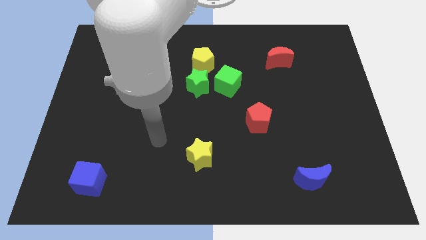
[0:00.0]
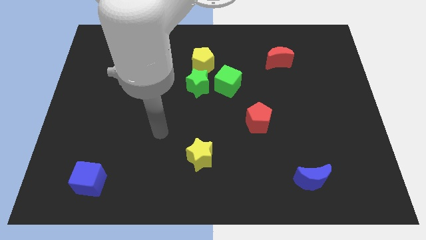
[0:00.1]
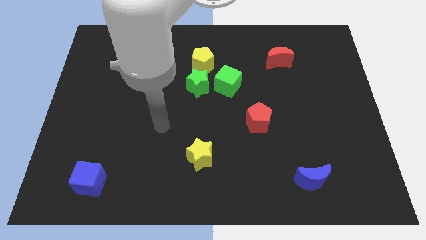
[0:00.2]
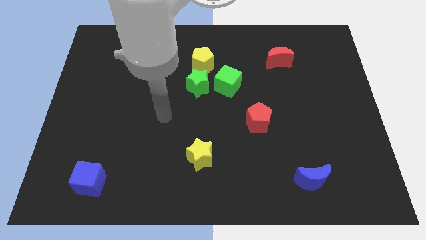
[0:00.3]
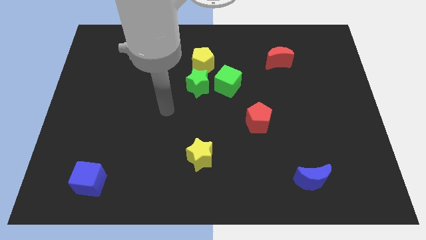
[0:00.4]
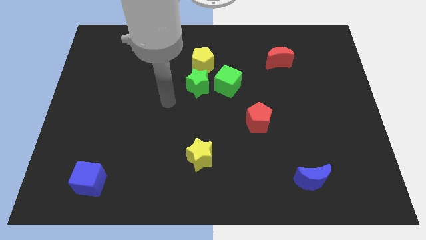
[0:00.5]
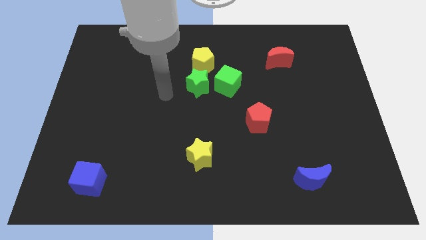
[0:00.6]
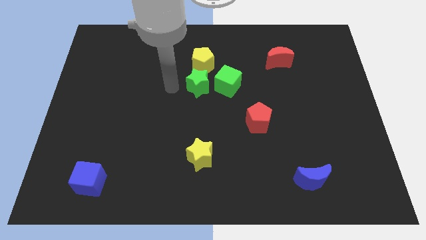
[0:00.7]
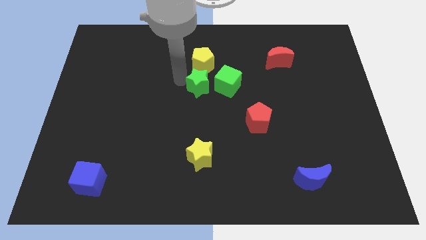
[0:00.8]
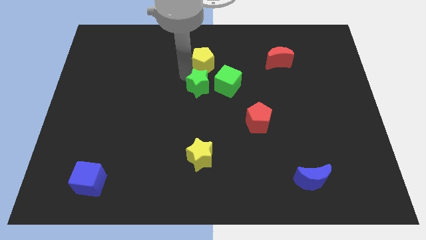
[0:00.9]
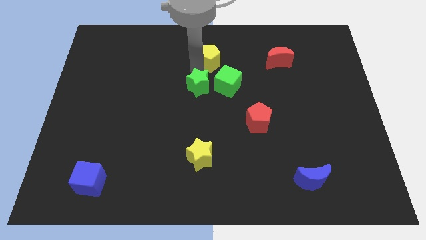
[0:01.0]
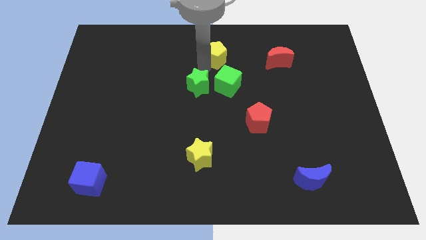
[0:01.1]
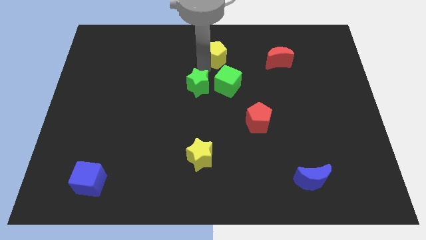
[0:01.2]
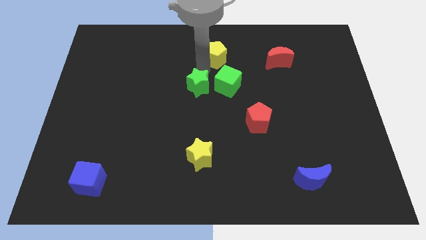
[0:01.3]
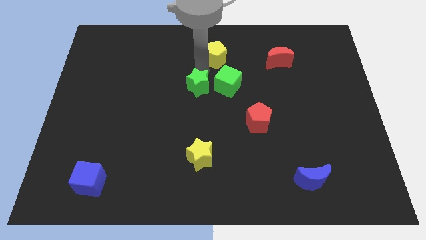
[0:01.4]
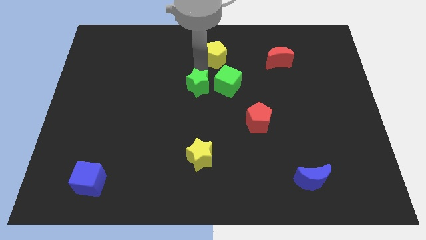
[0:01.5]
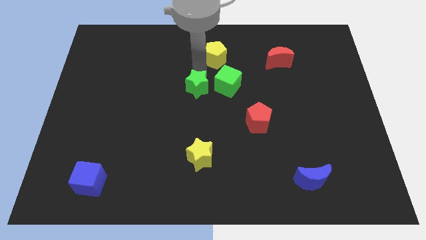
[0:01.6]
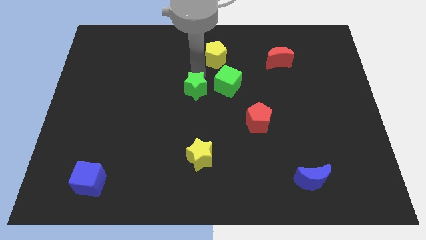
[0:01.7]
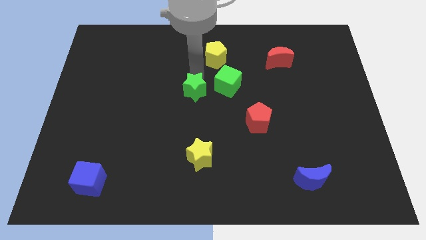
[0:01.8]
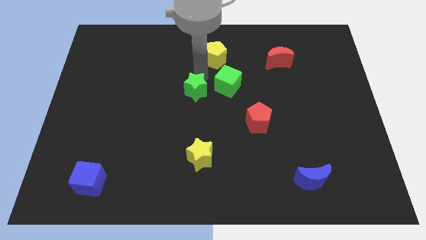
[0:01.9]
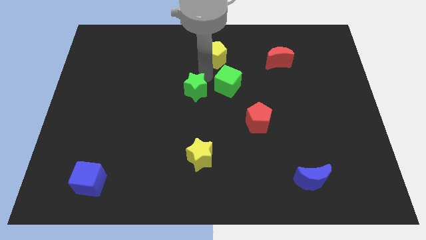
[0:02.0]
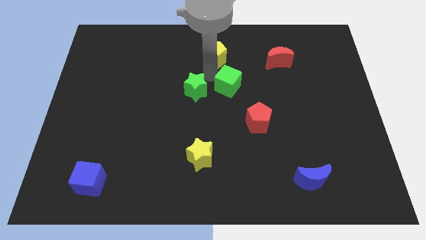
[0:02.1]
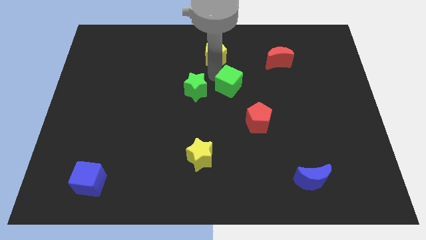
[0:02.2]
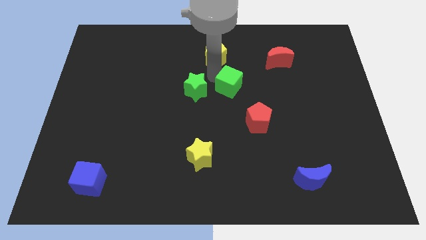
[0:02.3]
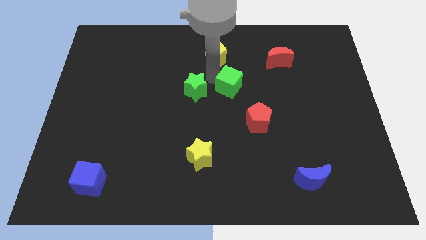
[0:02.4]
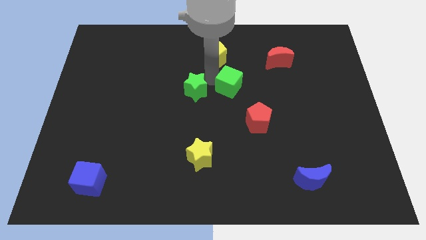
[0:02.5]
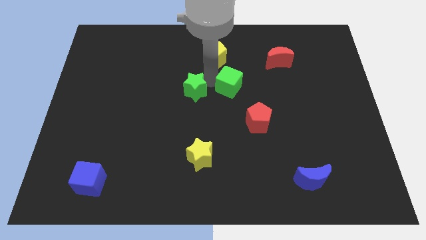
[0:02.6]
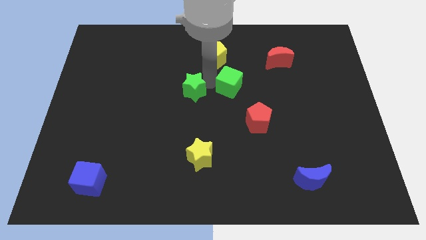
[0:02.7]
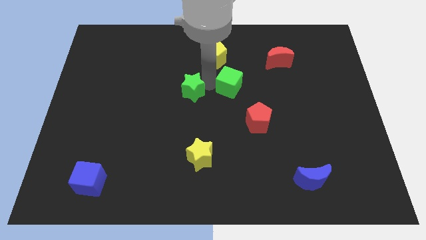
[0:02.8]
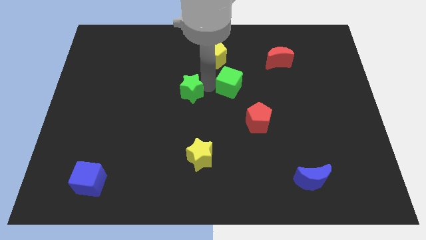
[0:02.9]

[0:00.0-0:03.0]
move the green star away from the green cube and yellow pentagon

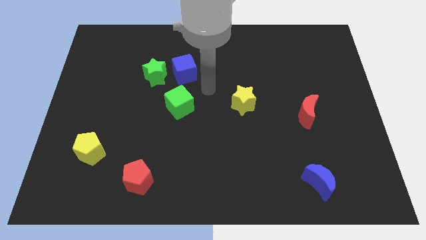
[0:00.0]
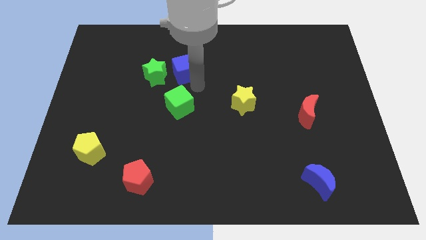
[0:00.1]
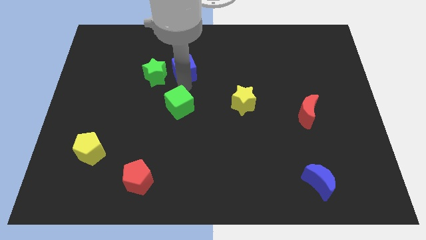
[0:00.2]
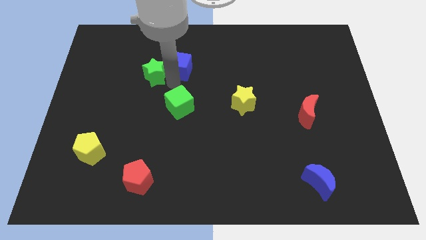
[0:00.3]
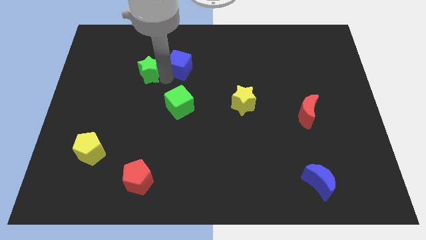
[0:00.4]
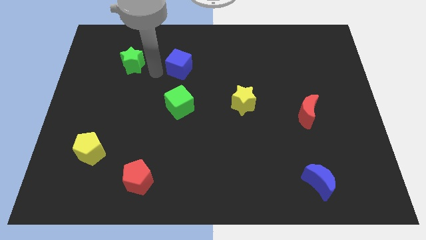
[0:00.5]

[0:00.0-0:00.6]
separate the blue cube from the green star

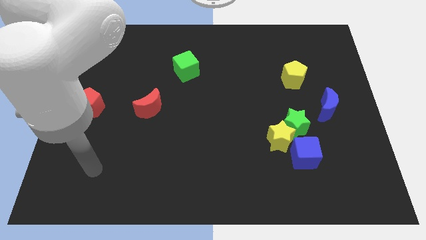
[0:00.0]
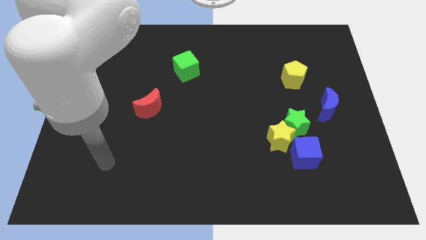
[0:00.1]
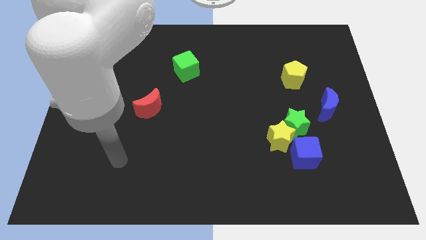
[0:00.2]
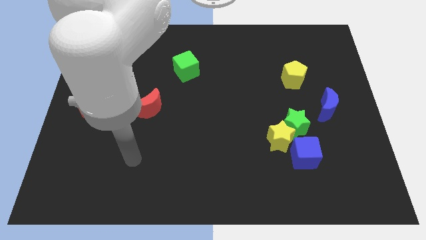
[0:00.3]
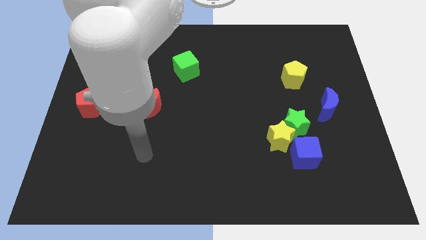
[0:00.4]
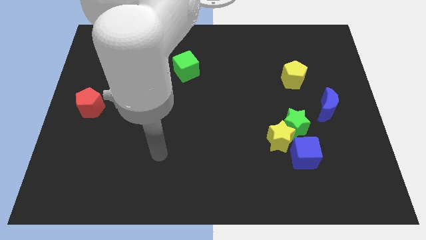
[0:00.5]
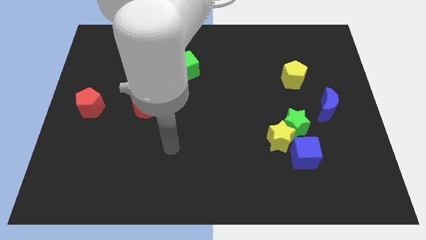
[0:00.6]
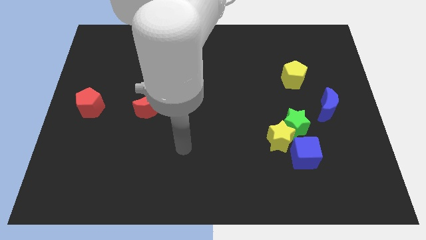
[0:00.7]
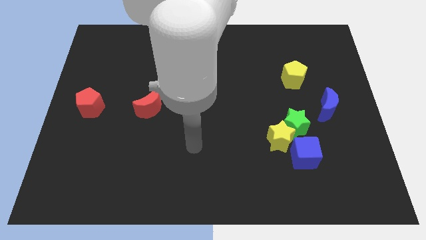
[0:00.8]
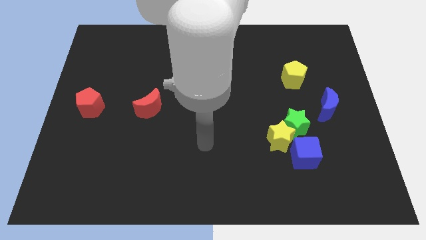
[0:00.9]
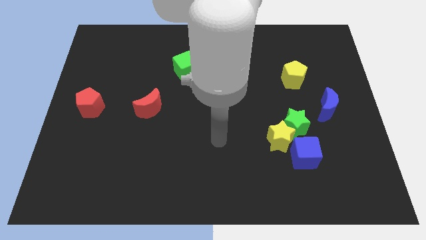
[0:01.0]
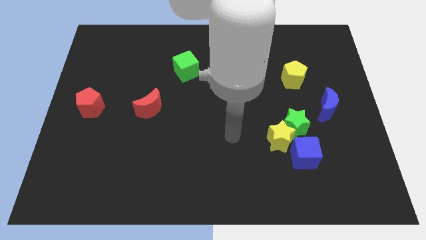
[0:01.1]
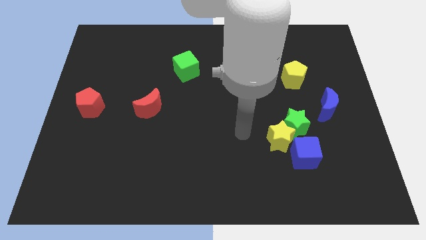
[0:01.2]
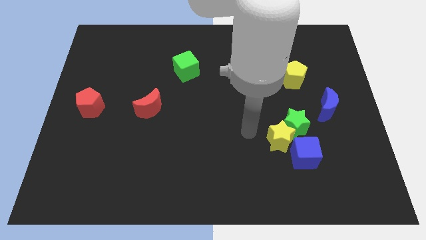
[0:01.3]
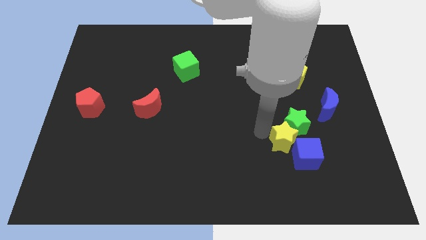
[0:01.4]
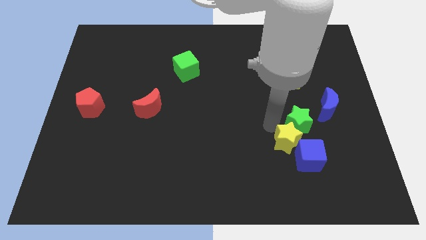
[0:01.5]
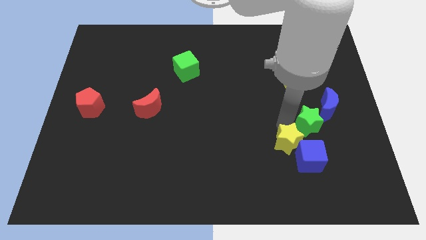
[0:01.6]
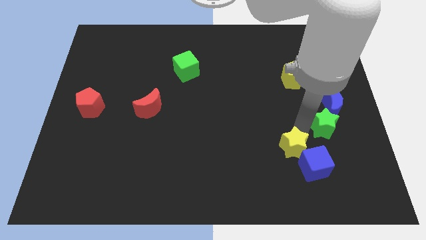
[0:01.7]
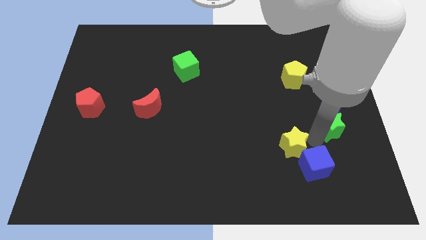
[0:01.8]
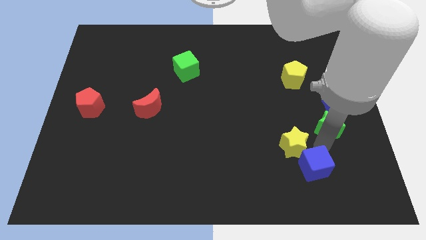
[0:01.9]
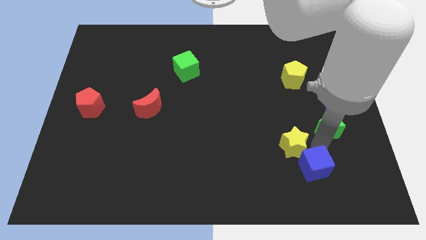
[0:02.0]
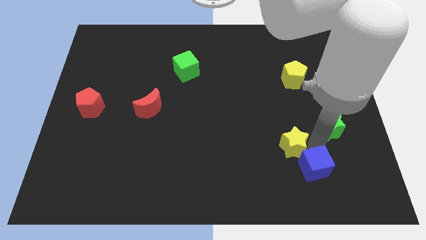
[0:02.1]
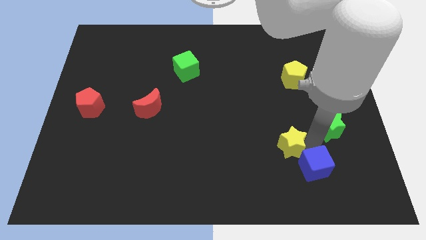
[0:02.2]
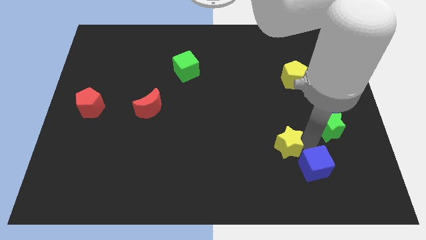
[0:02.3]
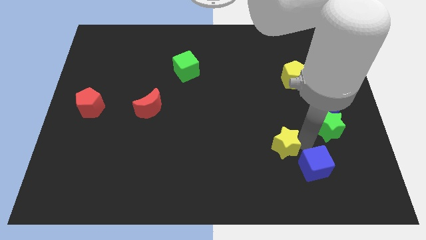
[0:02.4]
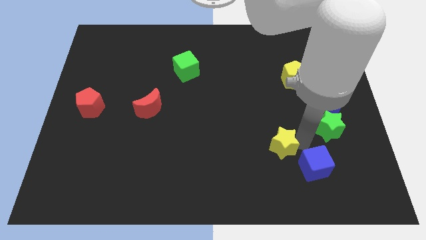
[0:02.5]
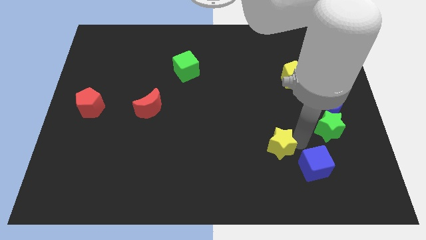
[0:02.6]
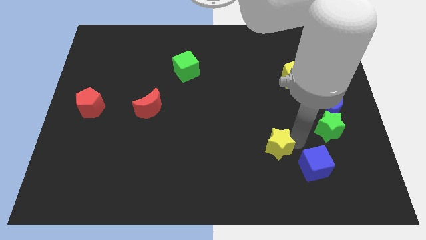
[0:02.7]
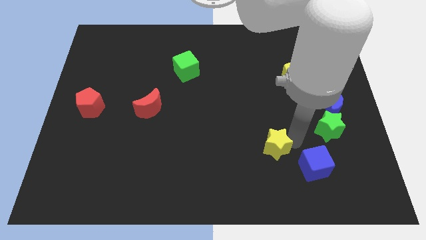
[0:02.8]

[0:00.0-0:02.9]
pull the yellow star apart from the green star and blue cube

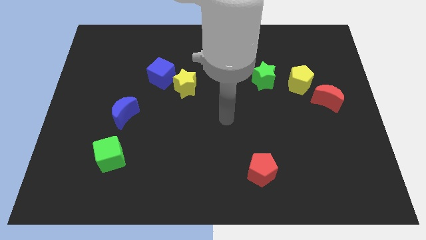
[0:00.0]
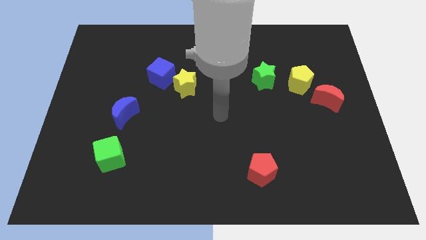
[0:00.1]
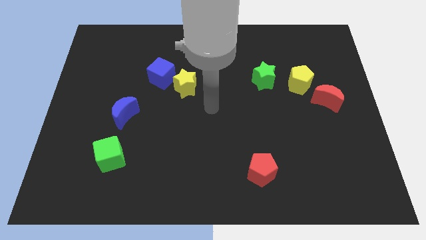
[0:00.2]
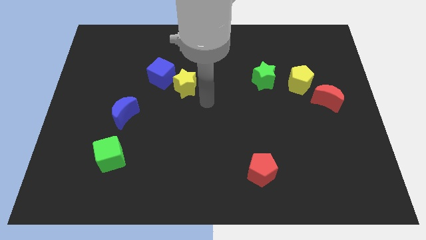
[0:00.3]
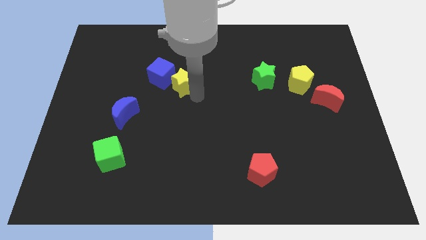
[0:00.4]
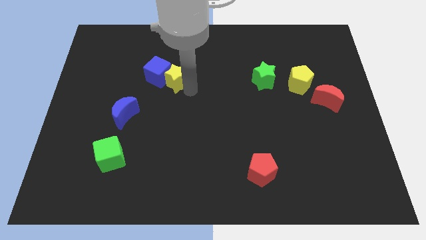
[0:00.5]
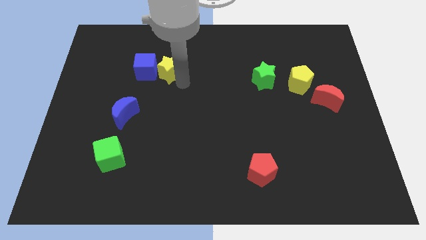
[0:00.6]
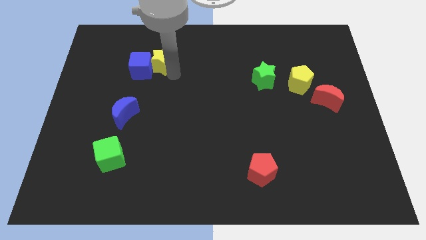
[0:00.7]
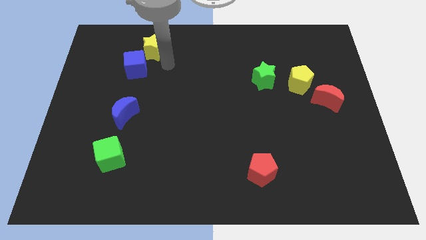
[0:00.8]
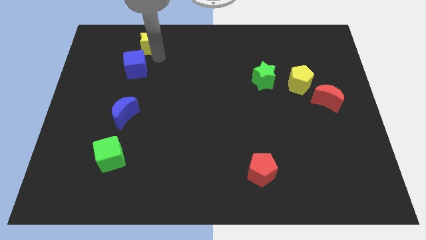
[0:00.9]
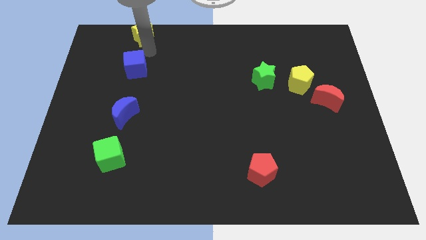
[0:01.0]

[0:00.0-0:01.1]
separate the blue cube from the yellow star

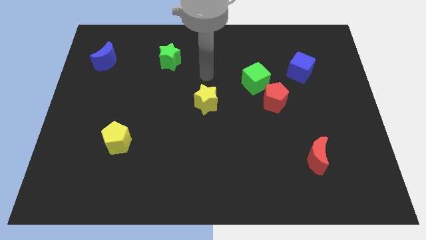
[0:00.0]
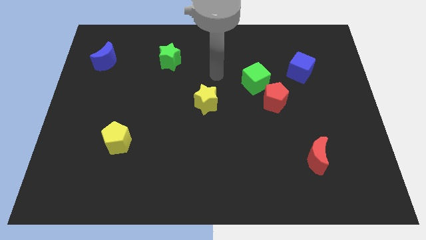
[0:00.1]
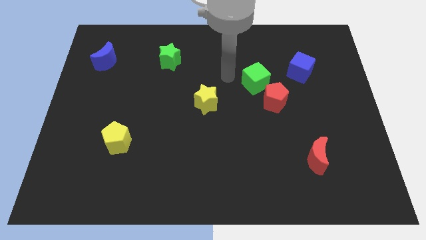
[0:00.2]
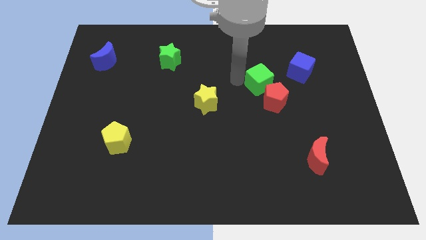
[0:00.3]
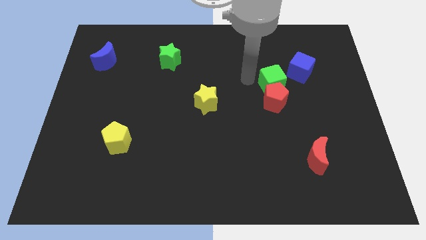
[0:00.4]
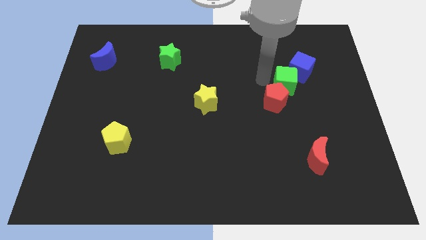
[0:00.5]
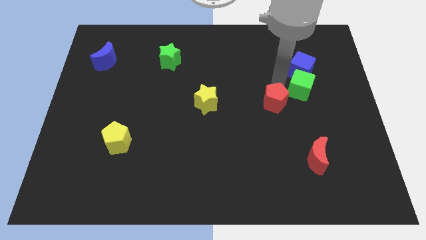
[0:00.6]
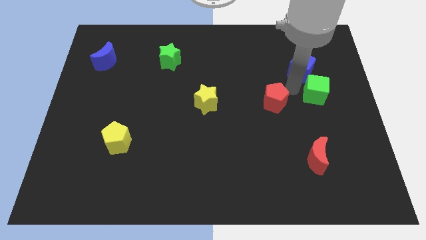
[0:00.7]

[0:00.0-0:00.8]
move the red pentagon away from the green cube

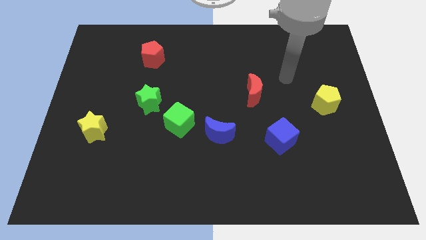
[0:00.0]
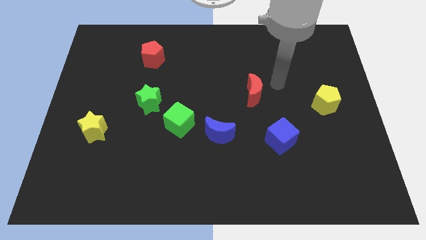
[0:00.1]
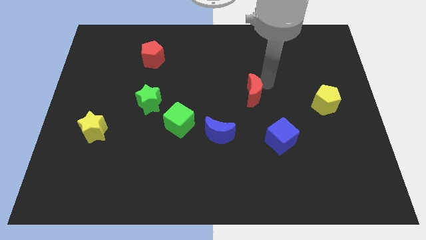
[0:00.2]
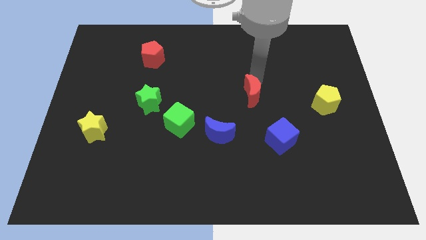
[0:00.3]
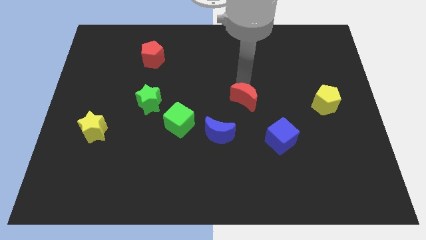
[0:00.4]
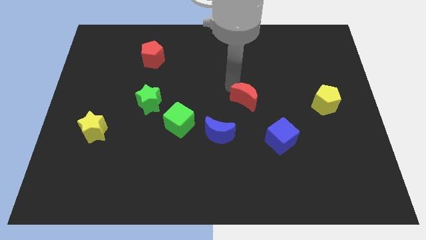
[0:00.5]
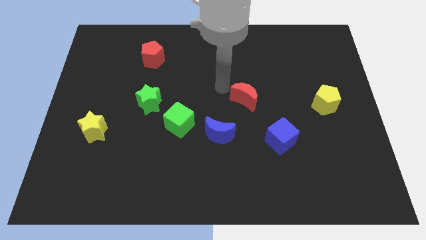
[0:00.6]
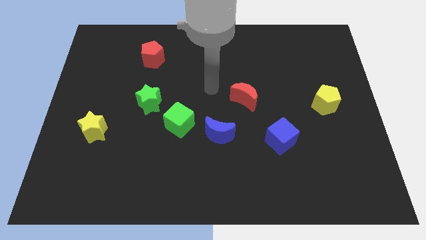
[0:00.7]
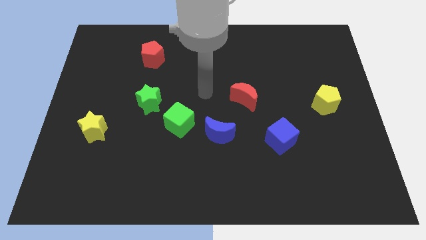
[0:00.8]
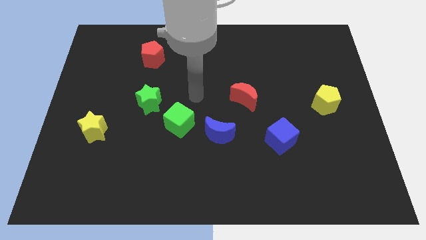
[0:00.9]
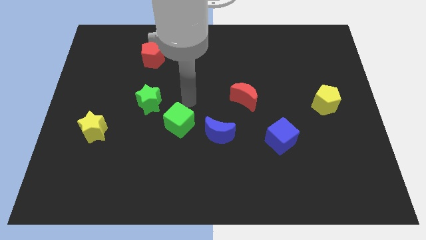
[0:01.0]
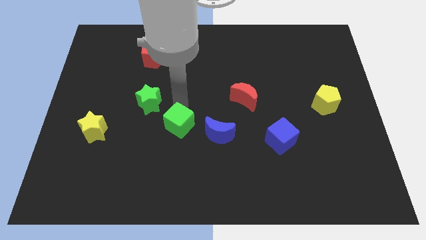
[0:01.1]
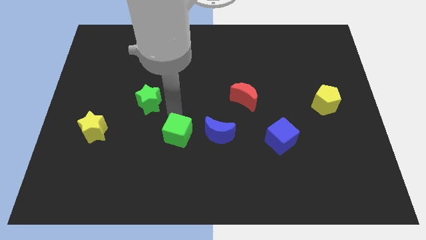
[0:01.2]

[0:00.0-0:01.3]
separate the green star from the green cube
